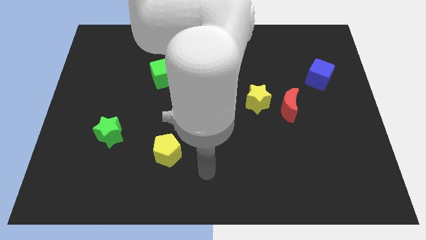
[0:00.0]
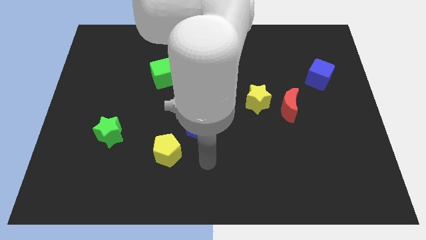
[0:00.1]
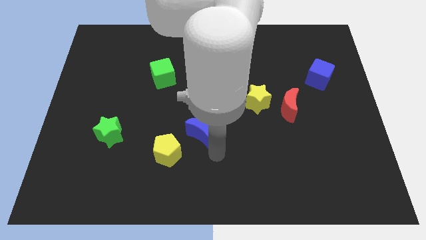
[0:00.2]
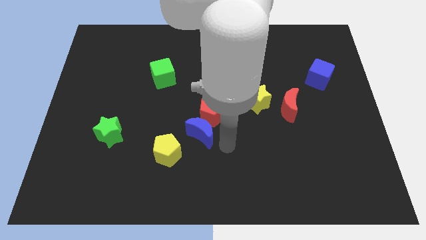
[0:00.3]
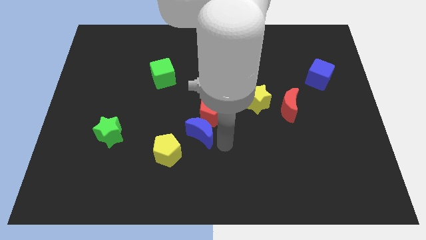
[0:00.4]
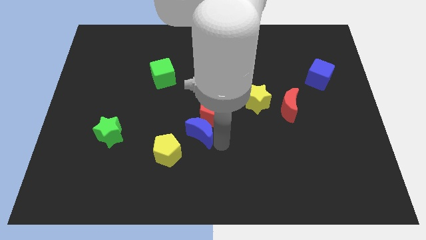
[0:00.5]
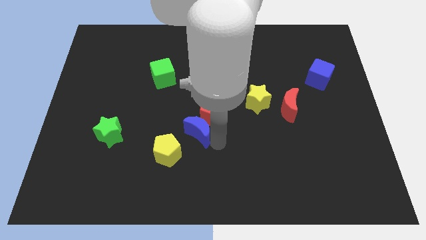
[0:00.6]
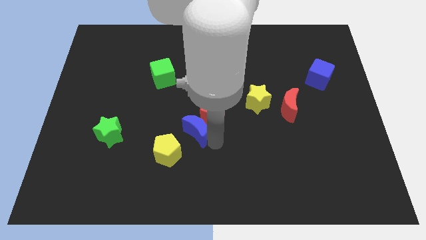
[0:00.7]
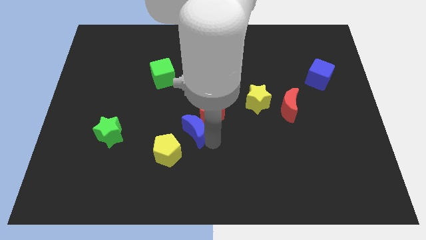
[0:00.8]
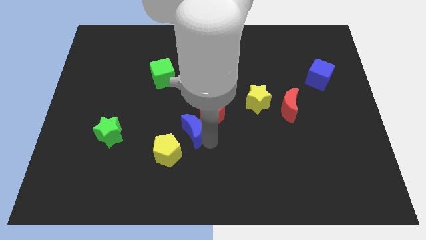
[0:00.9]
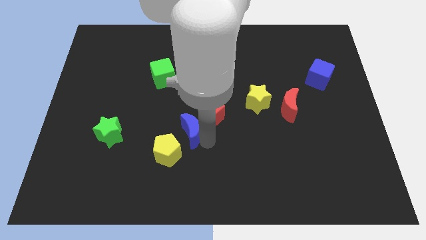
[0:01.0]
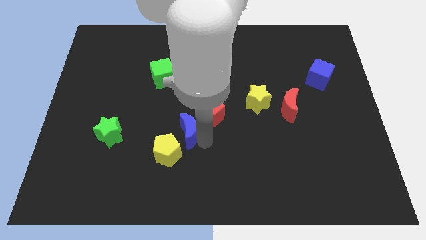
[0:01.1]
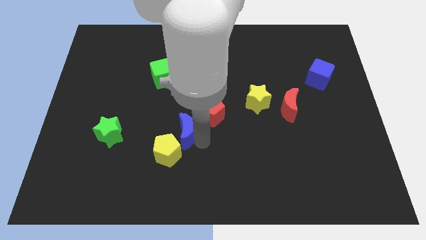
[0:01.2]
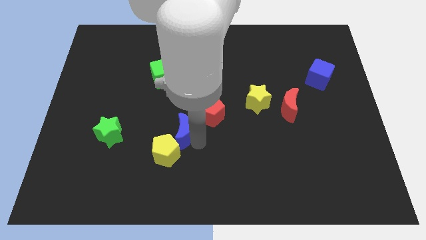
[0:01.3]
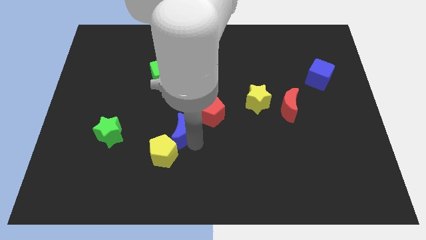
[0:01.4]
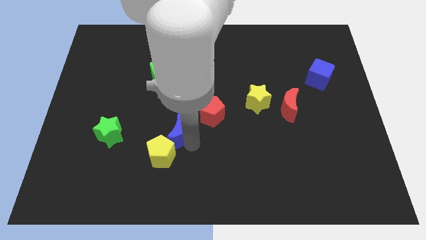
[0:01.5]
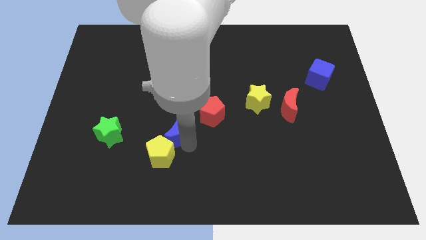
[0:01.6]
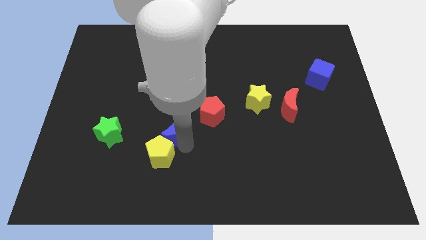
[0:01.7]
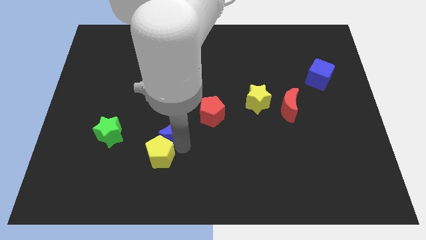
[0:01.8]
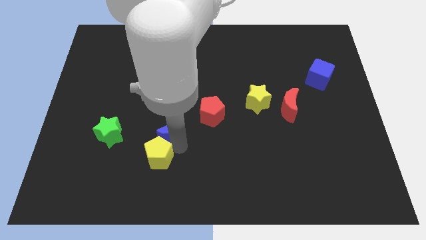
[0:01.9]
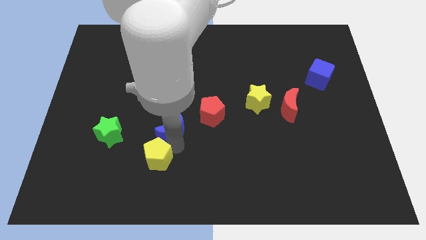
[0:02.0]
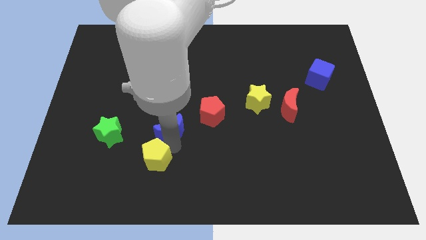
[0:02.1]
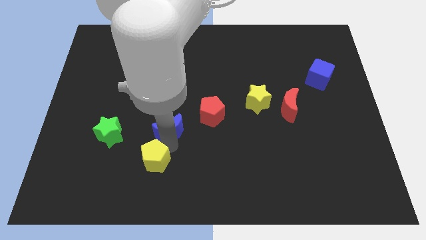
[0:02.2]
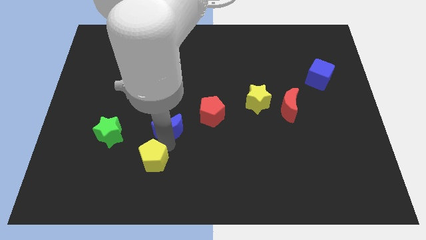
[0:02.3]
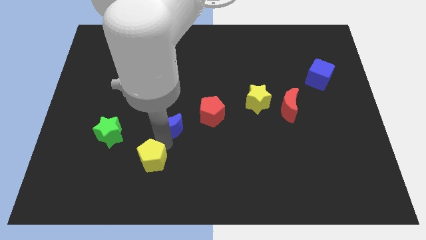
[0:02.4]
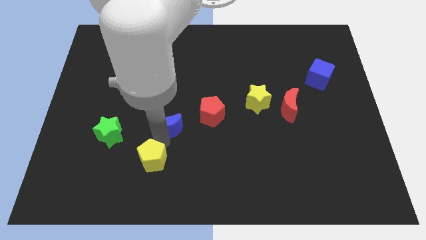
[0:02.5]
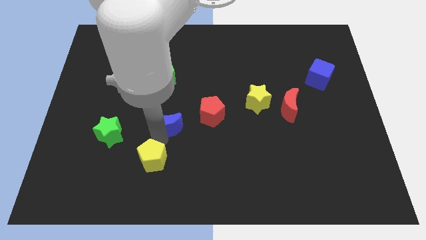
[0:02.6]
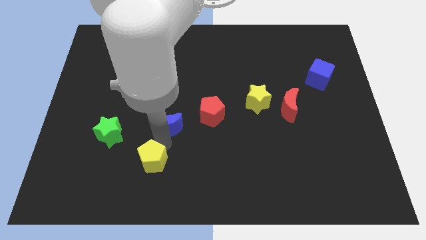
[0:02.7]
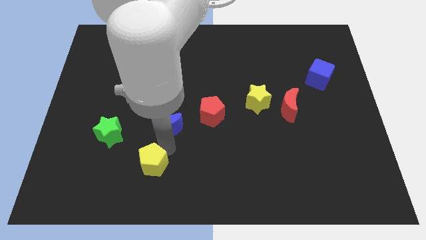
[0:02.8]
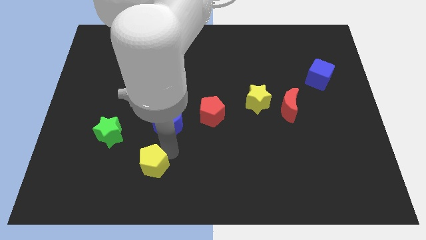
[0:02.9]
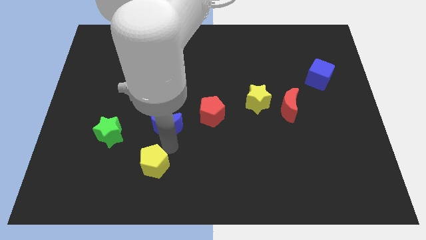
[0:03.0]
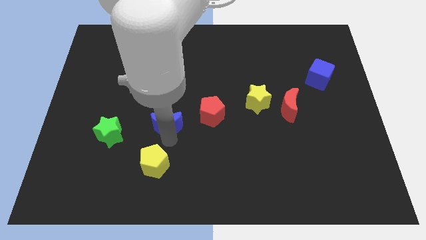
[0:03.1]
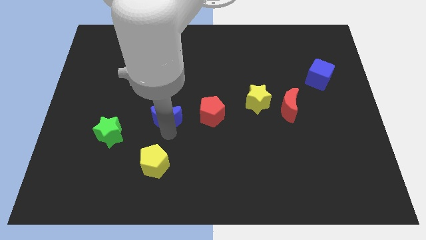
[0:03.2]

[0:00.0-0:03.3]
push the blue moon a little bit upwards and to the left

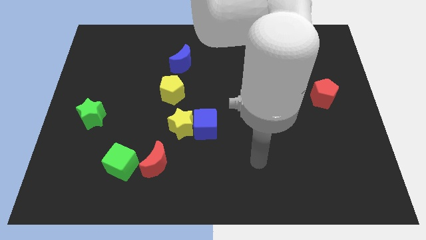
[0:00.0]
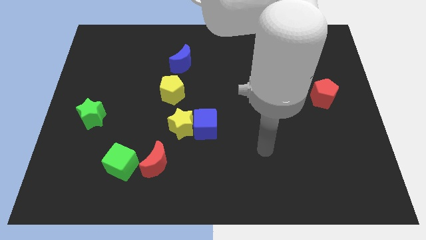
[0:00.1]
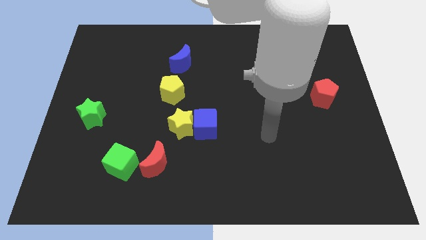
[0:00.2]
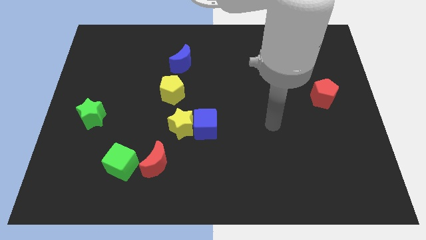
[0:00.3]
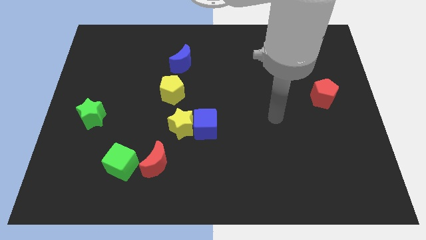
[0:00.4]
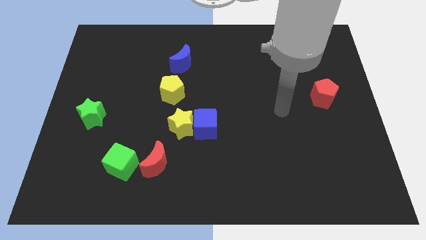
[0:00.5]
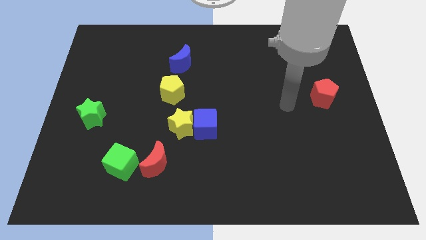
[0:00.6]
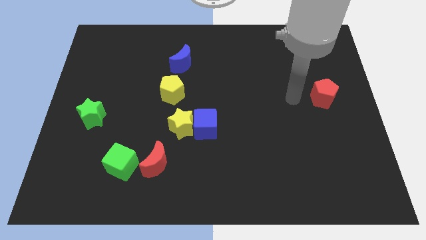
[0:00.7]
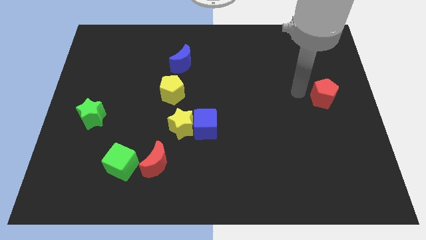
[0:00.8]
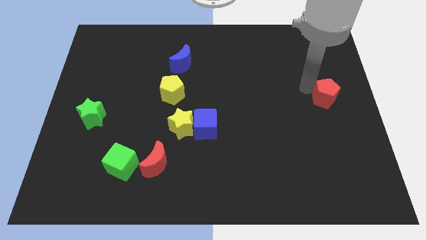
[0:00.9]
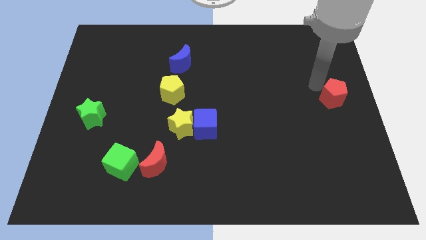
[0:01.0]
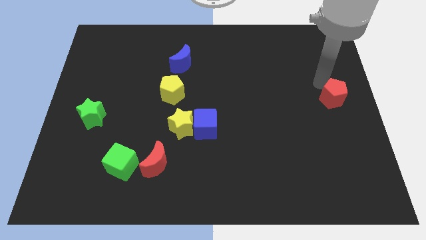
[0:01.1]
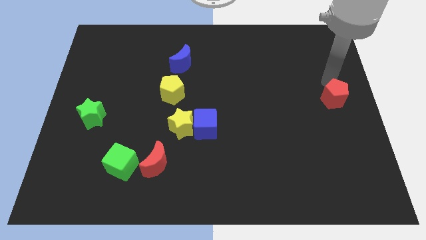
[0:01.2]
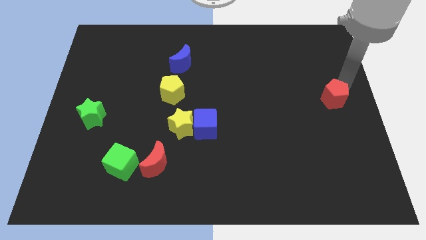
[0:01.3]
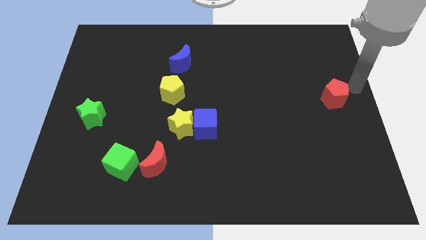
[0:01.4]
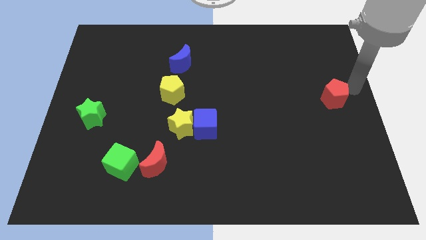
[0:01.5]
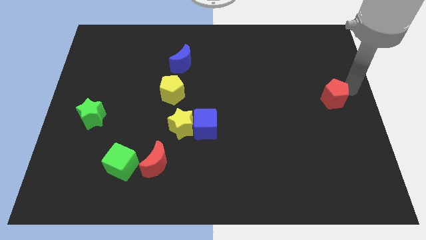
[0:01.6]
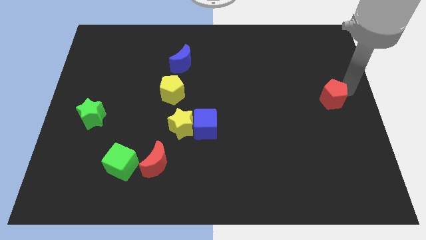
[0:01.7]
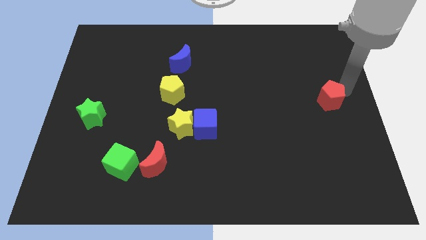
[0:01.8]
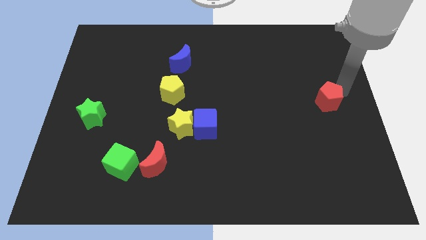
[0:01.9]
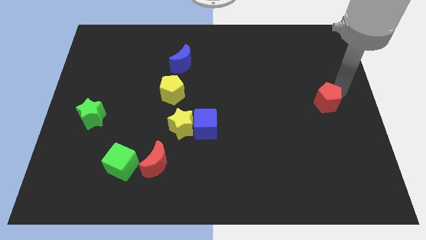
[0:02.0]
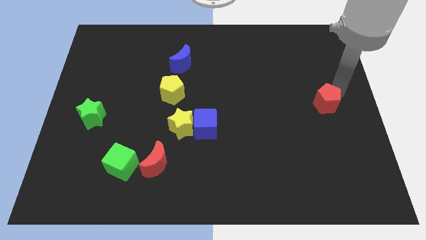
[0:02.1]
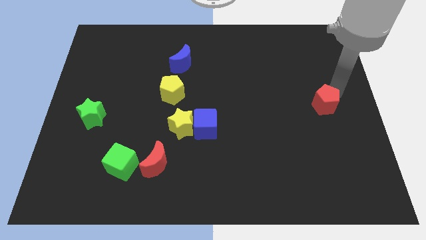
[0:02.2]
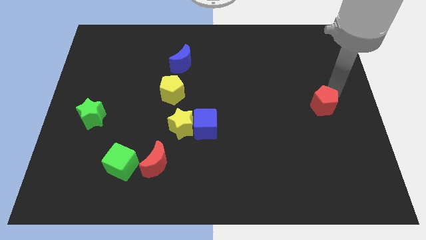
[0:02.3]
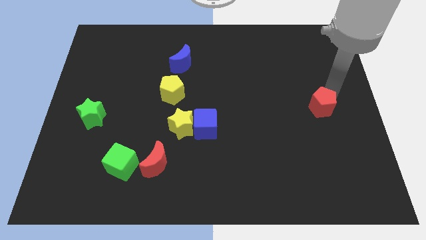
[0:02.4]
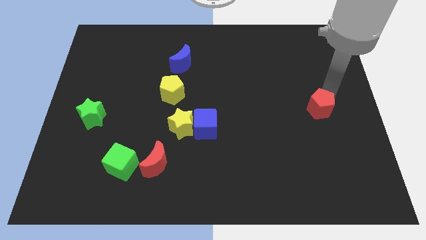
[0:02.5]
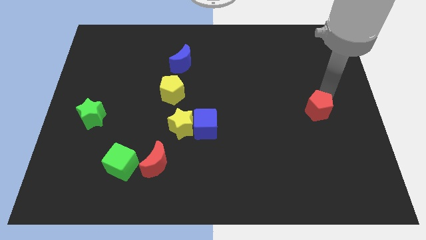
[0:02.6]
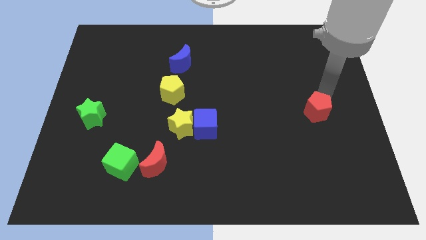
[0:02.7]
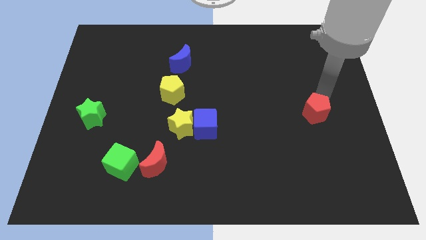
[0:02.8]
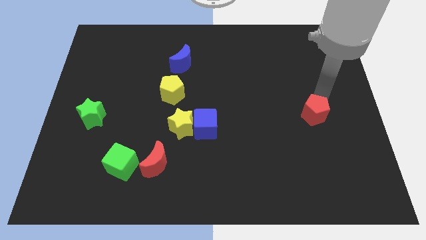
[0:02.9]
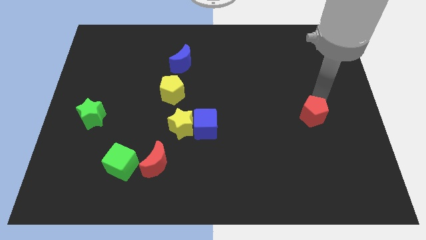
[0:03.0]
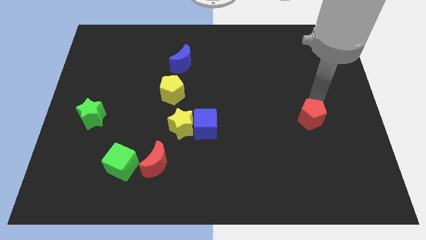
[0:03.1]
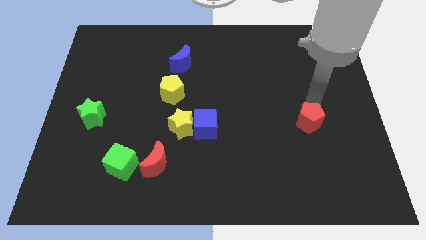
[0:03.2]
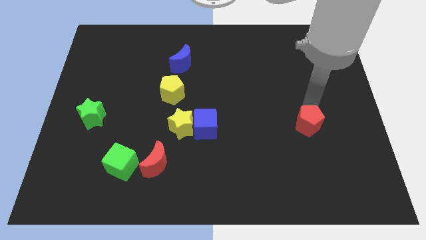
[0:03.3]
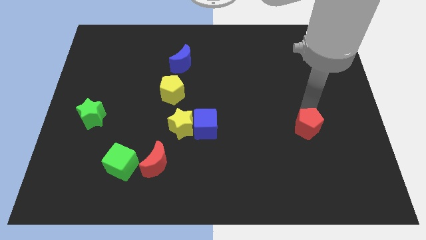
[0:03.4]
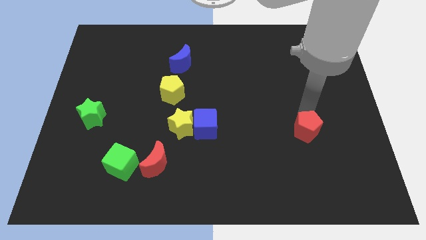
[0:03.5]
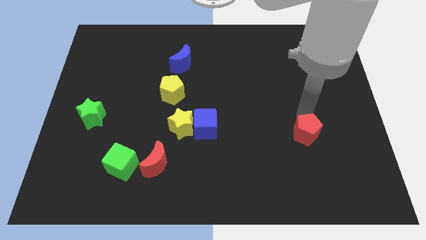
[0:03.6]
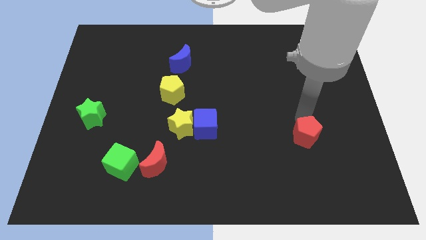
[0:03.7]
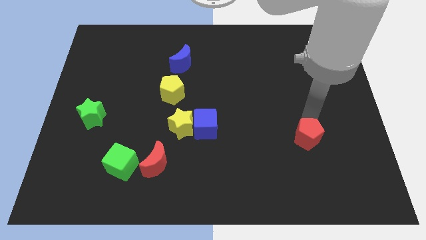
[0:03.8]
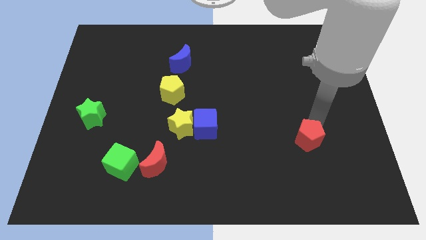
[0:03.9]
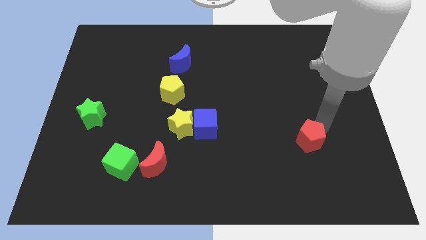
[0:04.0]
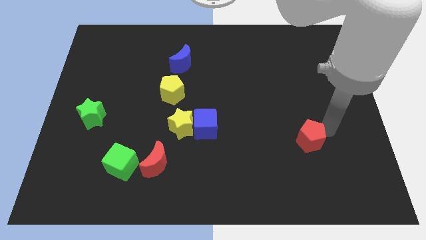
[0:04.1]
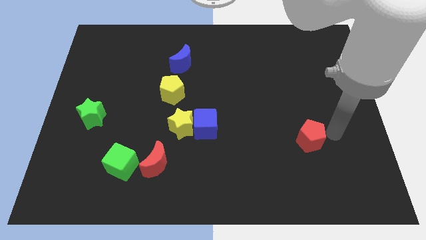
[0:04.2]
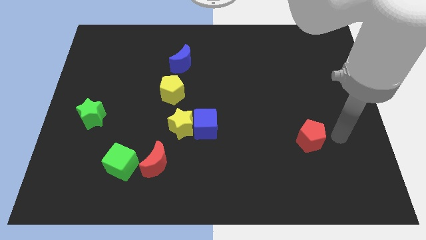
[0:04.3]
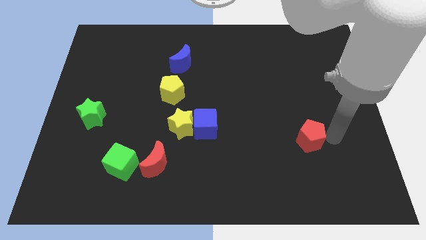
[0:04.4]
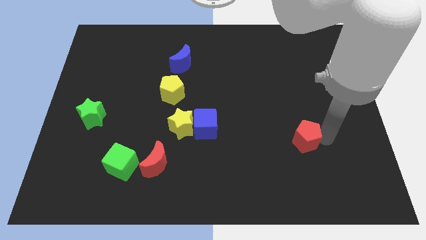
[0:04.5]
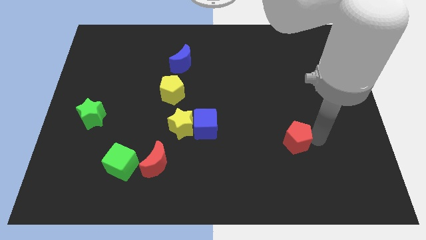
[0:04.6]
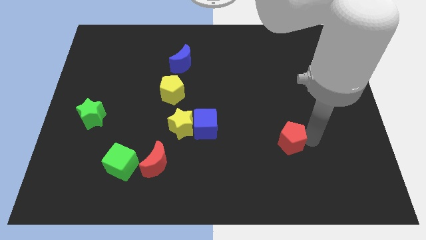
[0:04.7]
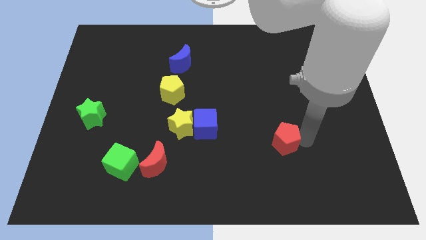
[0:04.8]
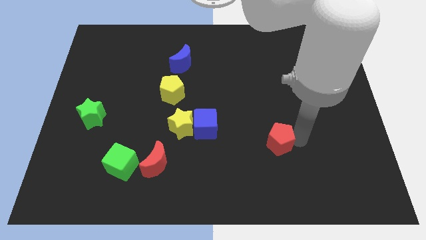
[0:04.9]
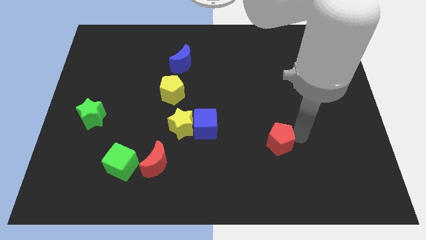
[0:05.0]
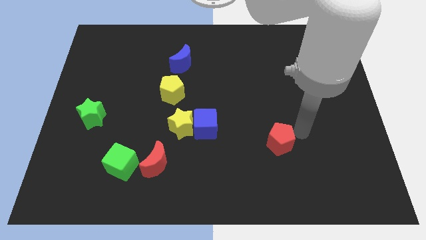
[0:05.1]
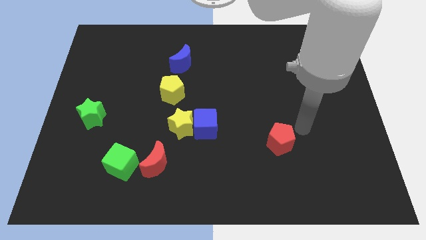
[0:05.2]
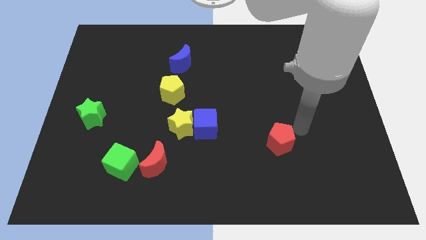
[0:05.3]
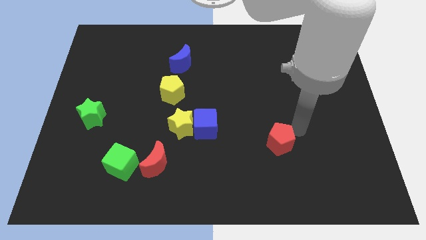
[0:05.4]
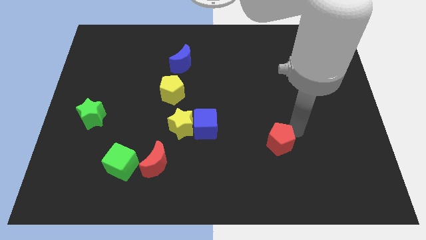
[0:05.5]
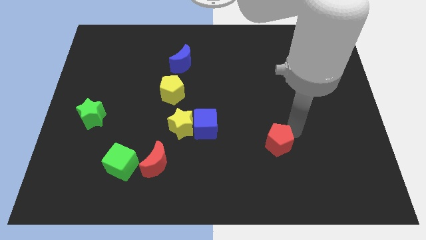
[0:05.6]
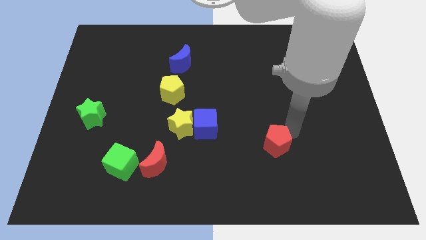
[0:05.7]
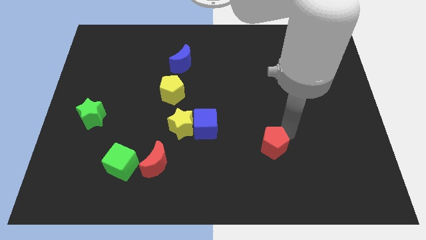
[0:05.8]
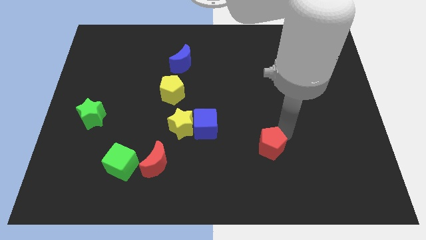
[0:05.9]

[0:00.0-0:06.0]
push the red pentagon diagonally downwards and to the left
